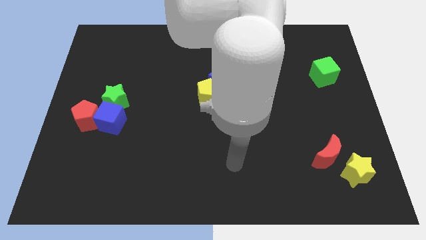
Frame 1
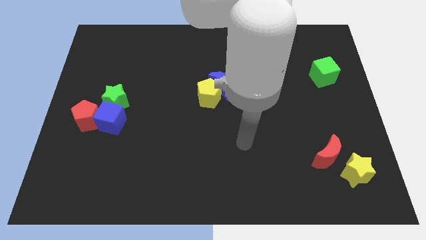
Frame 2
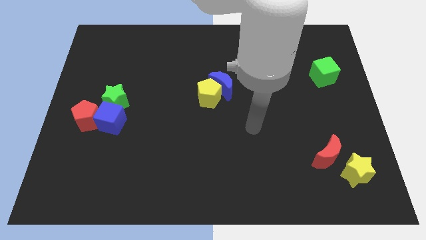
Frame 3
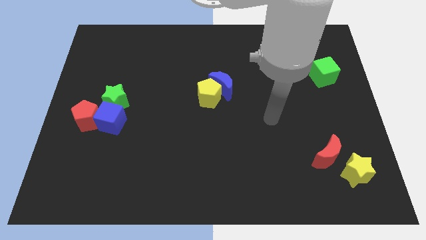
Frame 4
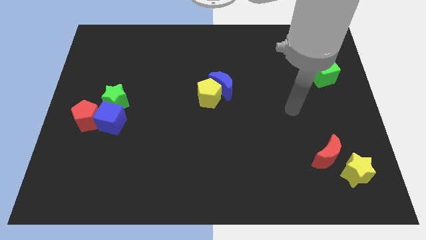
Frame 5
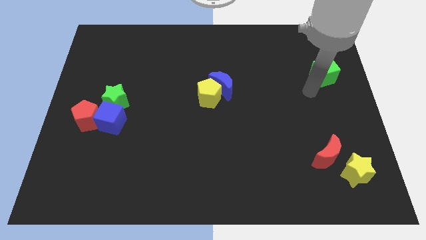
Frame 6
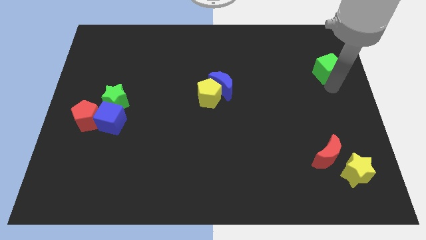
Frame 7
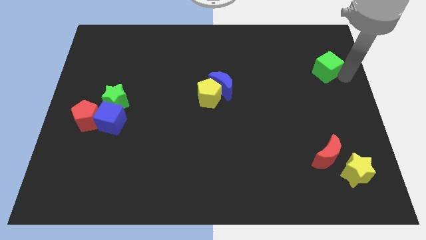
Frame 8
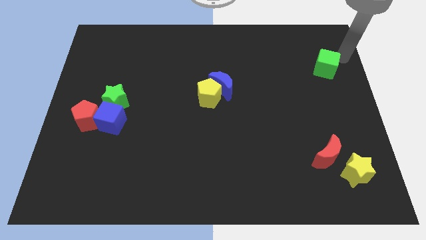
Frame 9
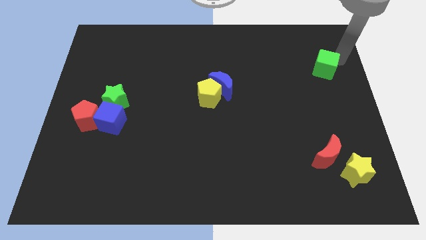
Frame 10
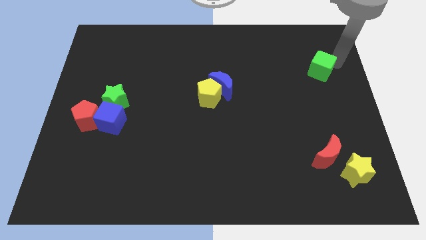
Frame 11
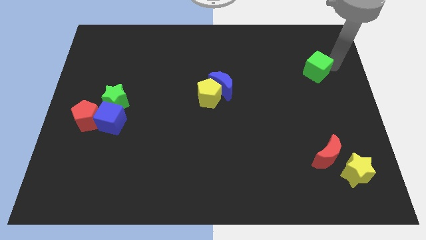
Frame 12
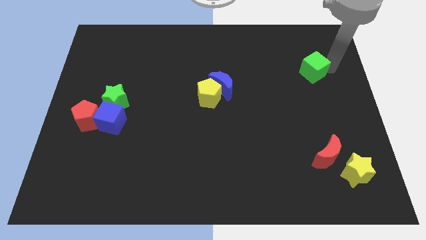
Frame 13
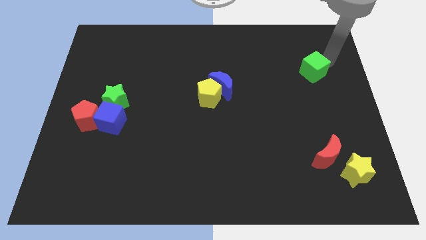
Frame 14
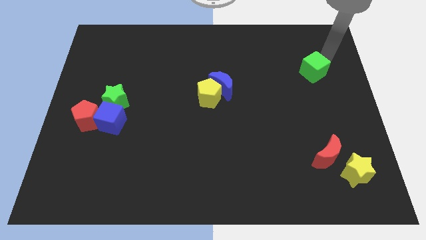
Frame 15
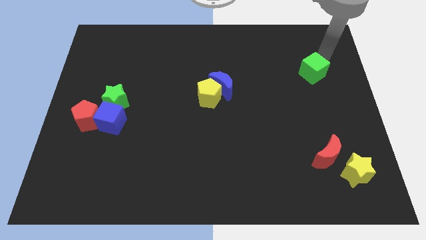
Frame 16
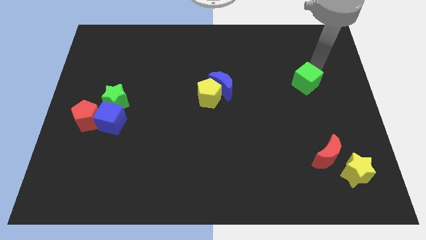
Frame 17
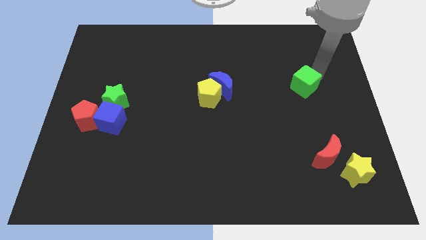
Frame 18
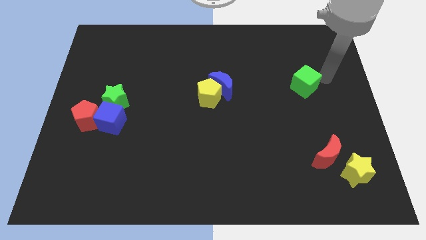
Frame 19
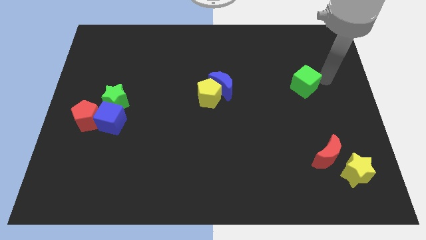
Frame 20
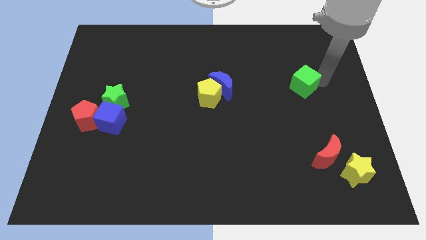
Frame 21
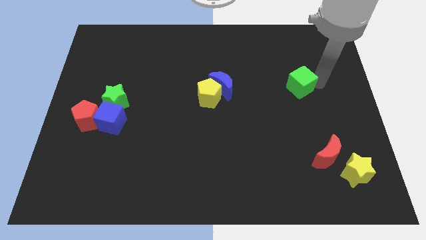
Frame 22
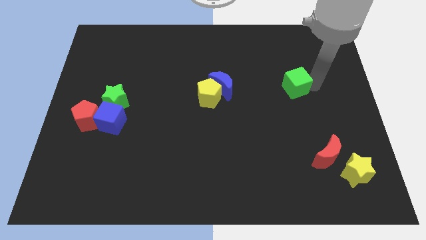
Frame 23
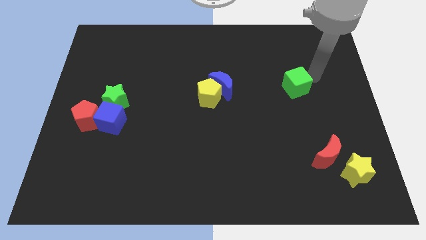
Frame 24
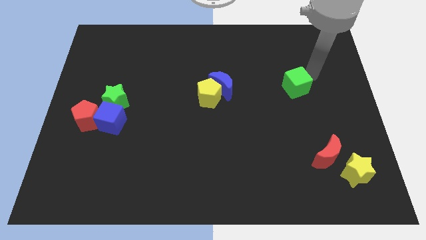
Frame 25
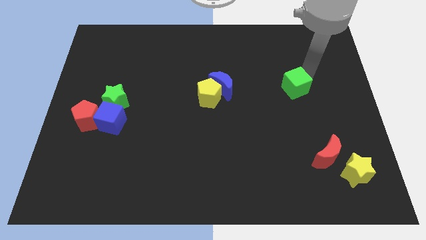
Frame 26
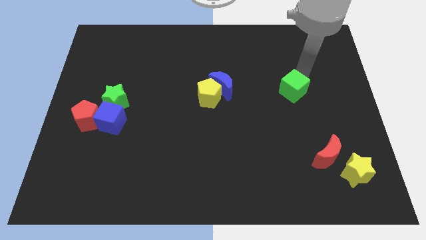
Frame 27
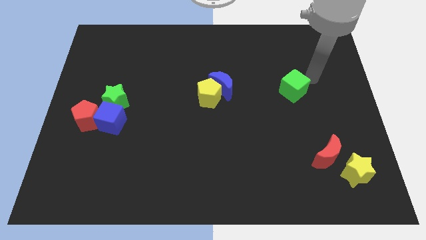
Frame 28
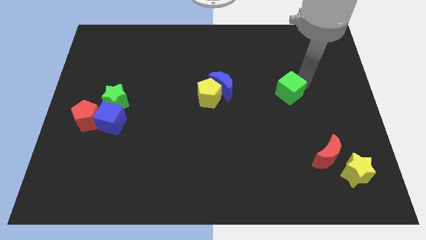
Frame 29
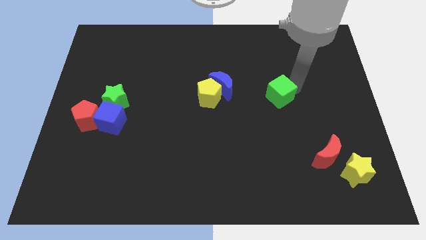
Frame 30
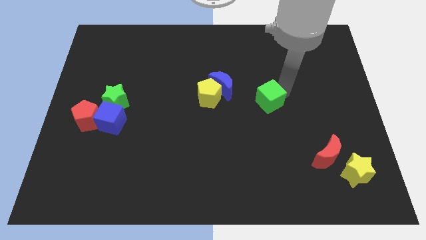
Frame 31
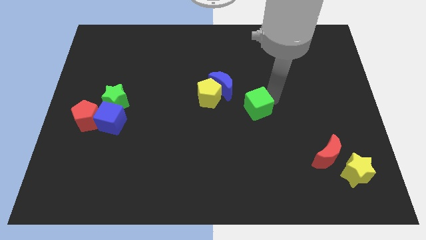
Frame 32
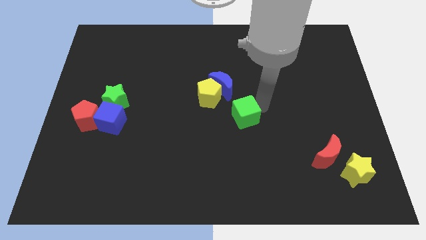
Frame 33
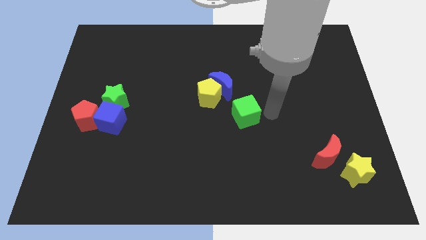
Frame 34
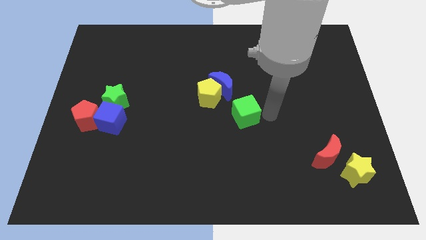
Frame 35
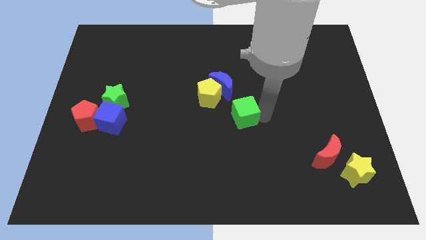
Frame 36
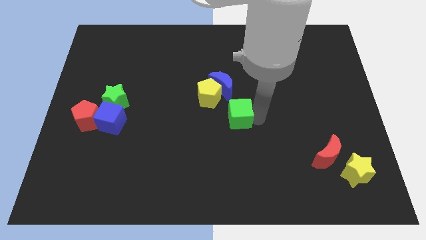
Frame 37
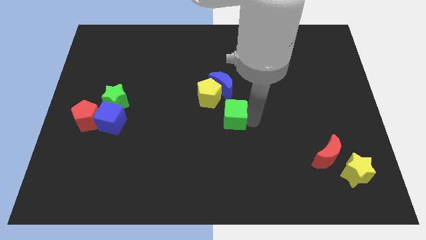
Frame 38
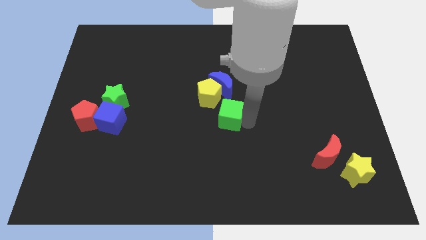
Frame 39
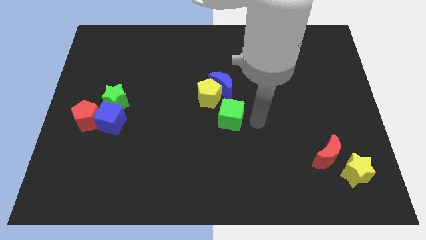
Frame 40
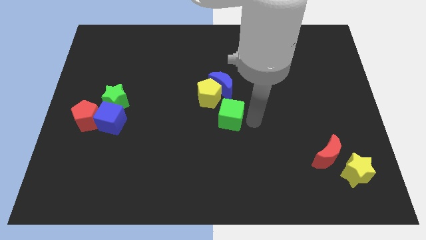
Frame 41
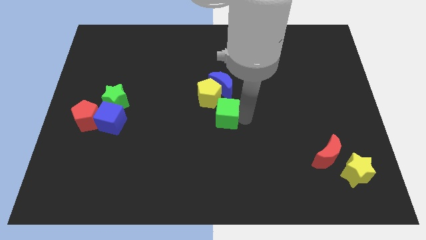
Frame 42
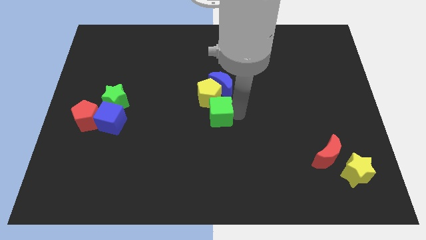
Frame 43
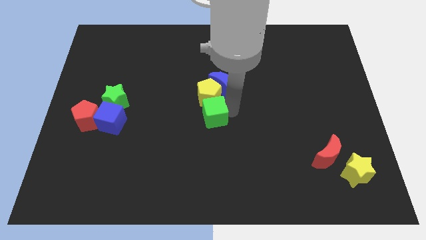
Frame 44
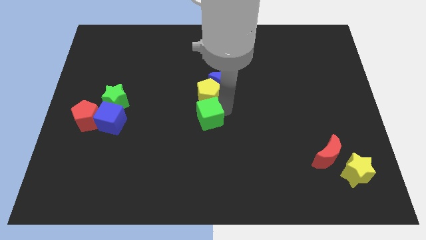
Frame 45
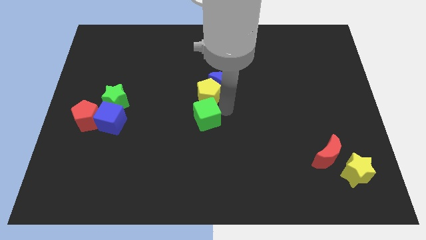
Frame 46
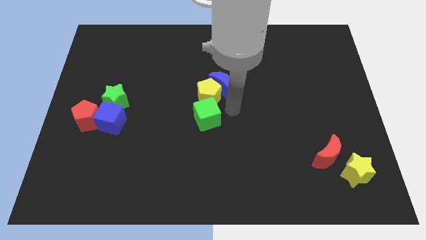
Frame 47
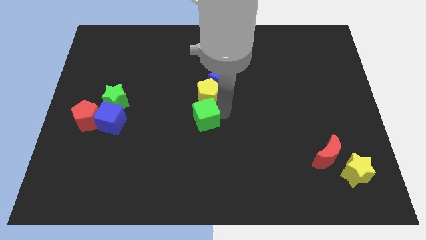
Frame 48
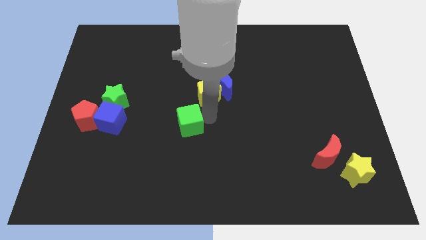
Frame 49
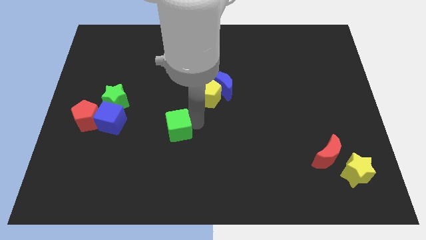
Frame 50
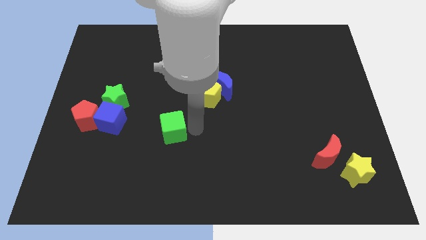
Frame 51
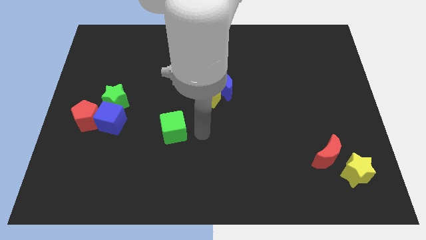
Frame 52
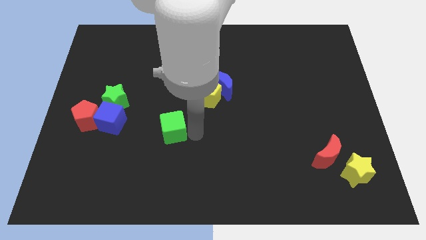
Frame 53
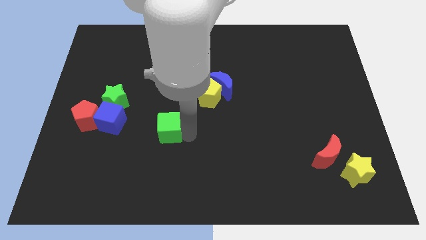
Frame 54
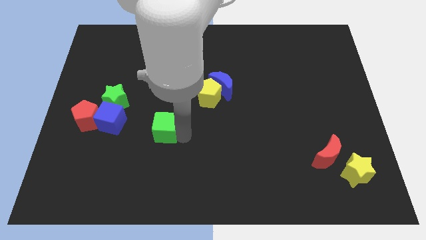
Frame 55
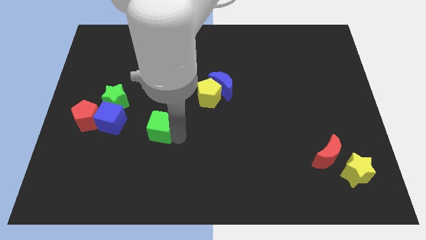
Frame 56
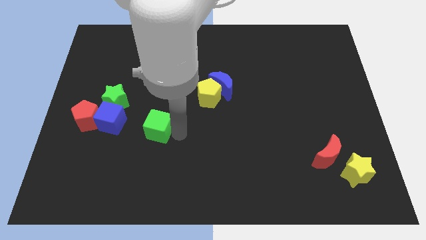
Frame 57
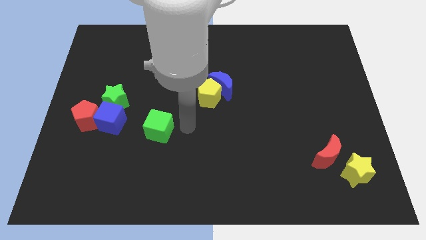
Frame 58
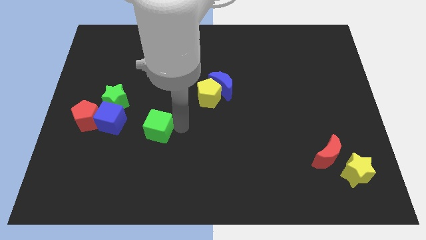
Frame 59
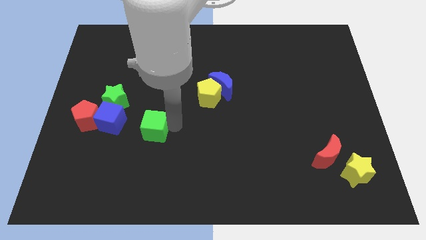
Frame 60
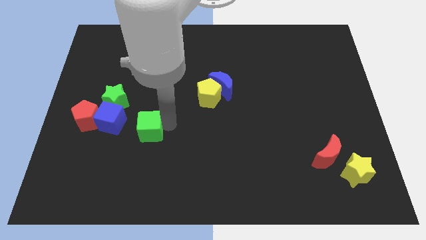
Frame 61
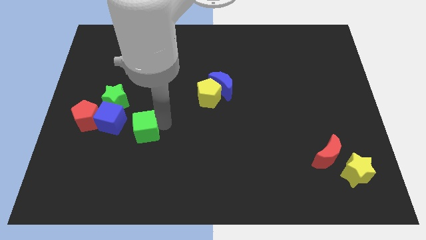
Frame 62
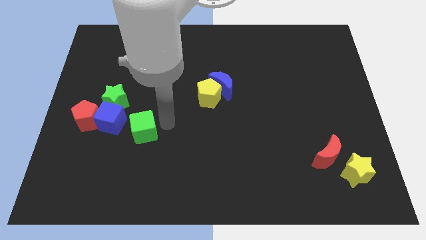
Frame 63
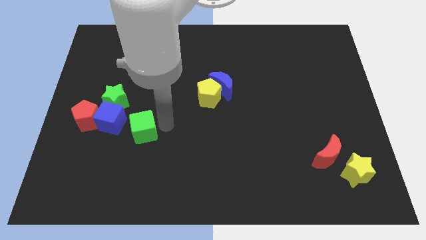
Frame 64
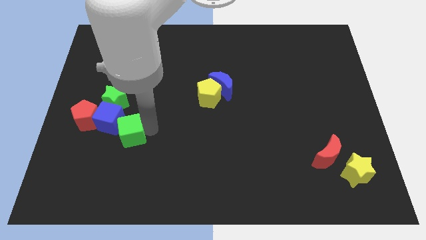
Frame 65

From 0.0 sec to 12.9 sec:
put the green cube to the bottom side of the green star
